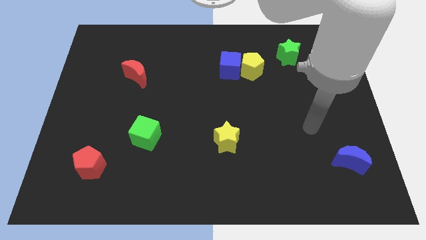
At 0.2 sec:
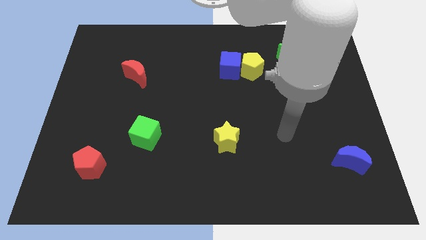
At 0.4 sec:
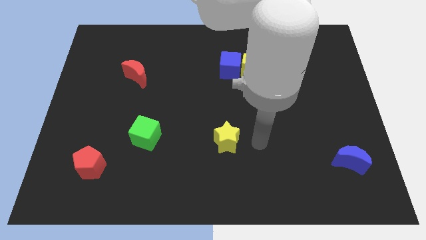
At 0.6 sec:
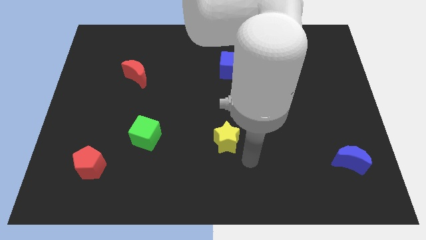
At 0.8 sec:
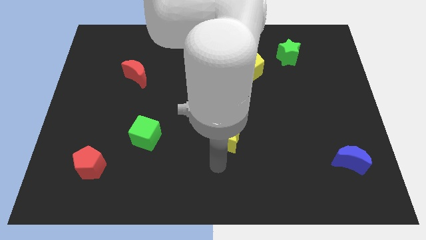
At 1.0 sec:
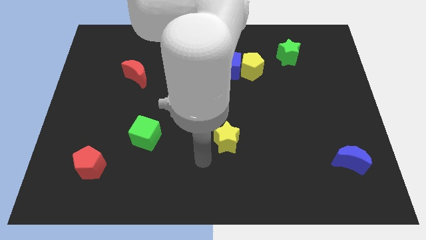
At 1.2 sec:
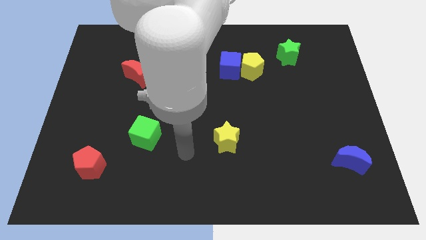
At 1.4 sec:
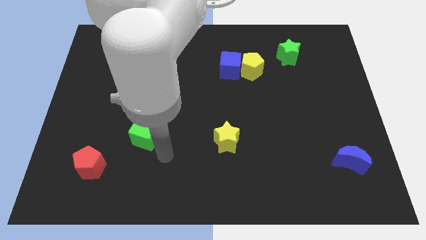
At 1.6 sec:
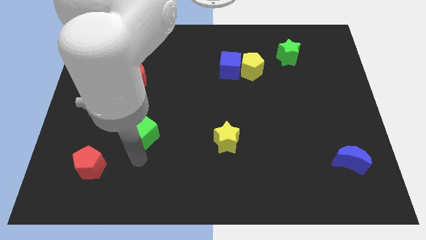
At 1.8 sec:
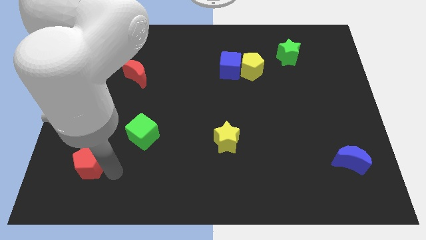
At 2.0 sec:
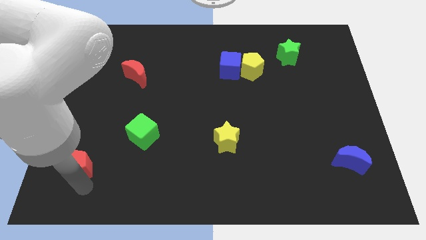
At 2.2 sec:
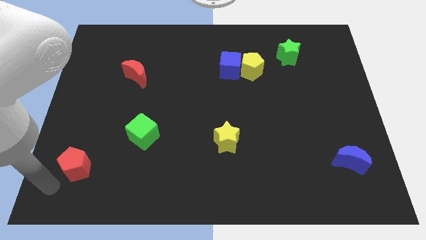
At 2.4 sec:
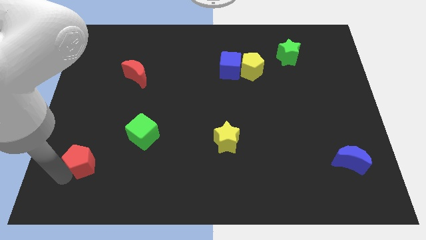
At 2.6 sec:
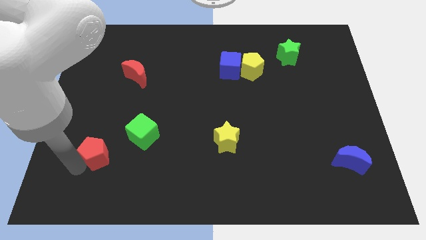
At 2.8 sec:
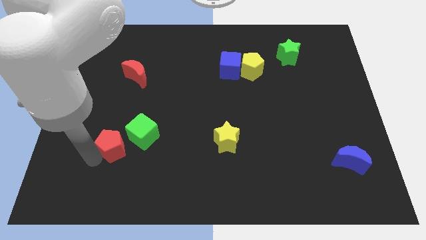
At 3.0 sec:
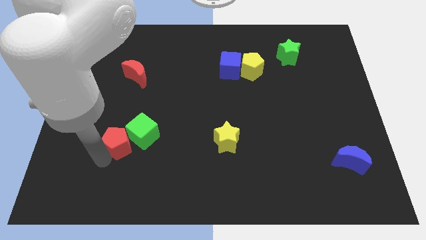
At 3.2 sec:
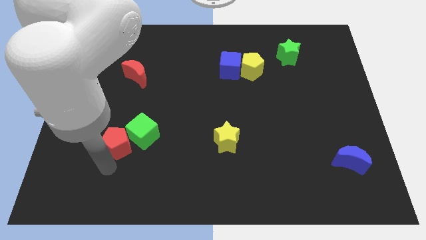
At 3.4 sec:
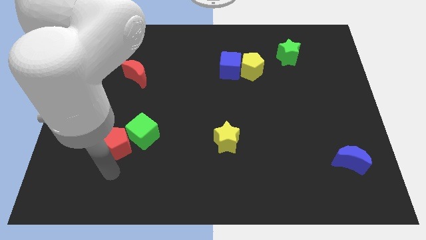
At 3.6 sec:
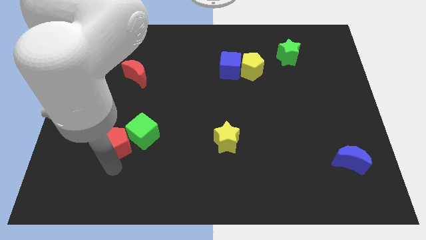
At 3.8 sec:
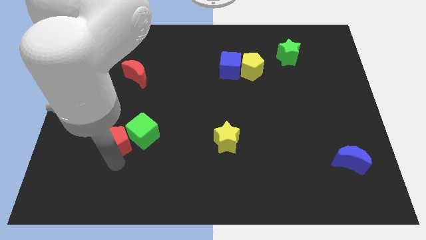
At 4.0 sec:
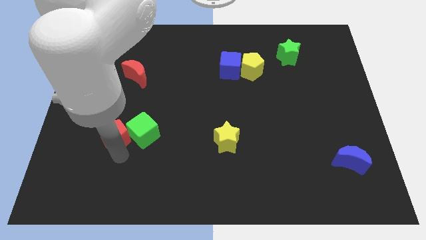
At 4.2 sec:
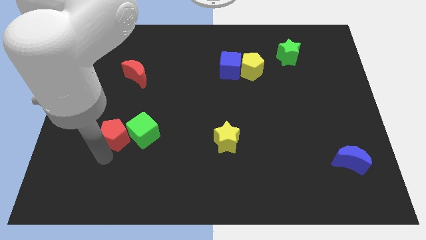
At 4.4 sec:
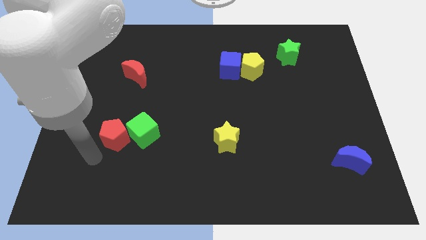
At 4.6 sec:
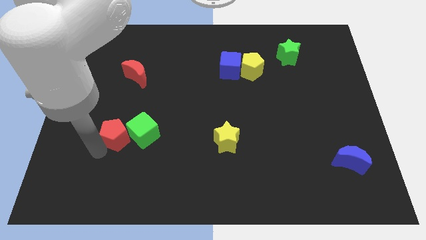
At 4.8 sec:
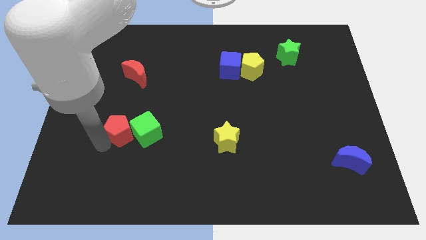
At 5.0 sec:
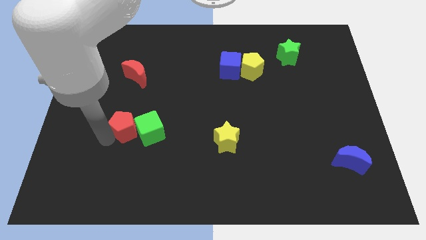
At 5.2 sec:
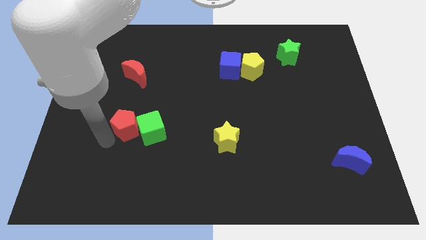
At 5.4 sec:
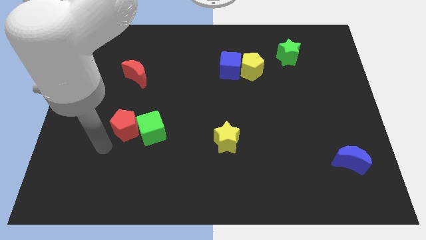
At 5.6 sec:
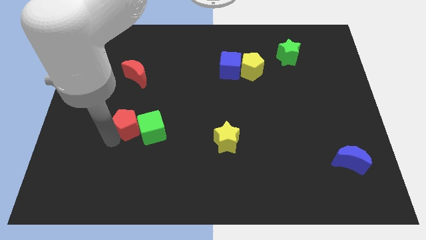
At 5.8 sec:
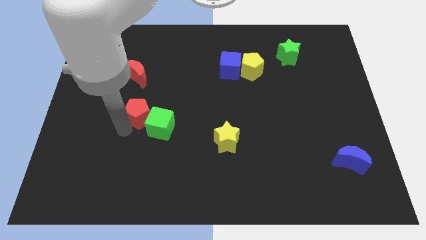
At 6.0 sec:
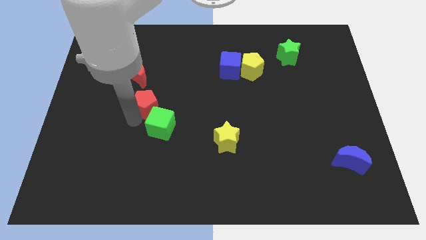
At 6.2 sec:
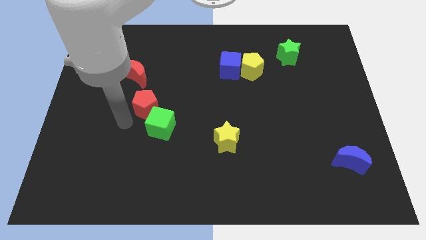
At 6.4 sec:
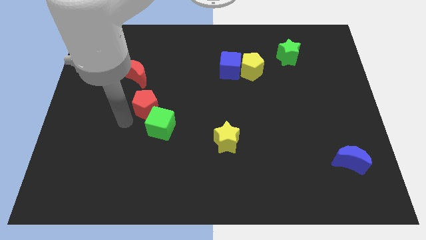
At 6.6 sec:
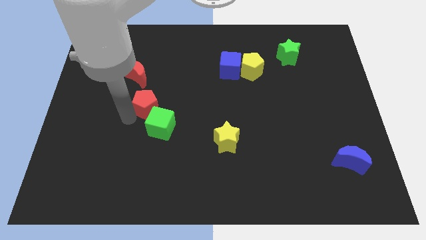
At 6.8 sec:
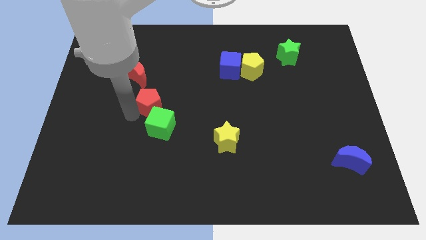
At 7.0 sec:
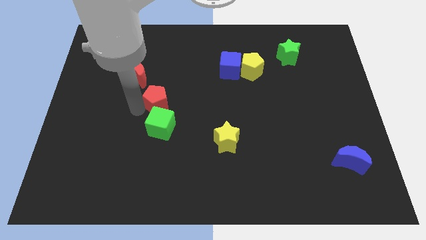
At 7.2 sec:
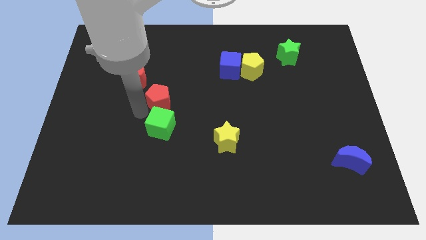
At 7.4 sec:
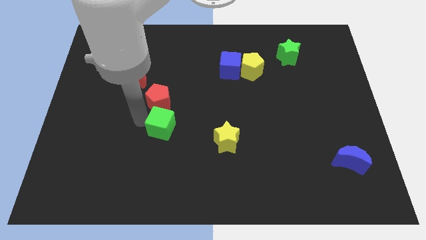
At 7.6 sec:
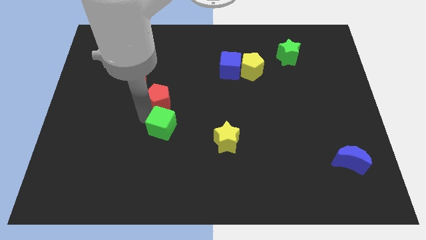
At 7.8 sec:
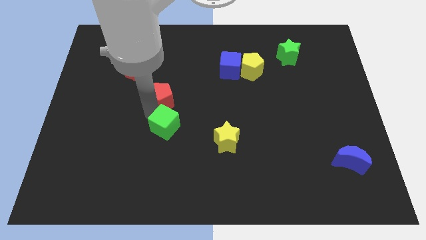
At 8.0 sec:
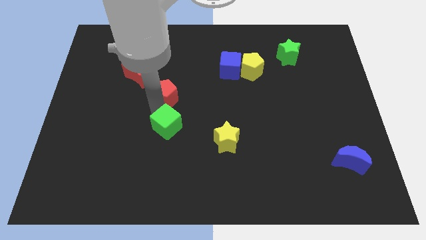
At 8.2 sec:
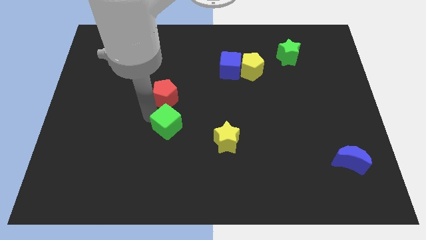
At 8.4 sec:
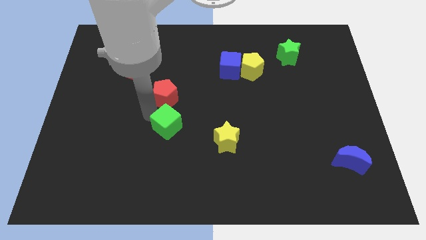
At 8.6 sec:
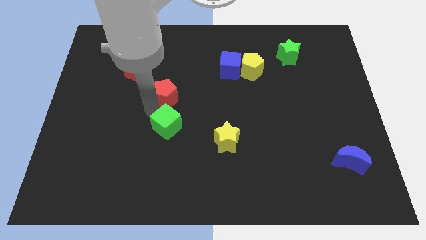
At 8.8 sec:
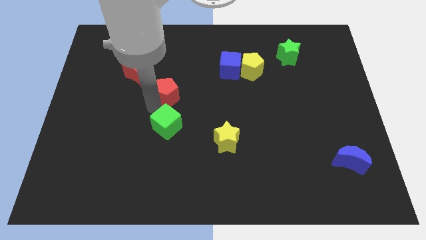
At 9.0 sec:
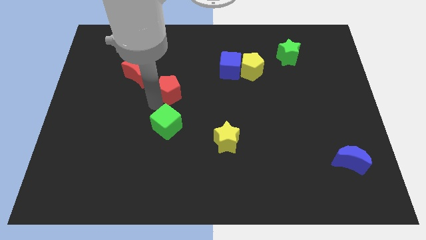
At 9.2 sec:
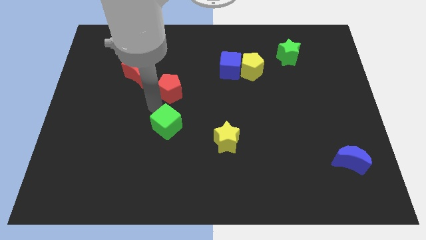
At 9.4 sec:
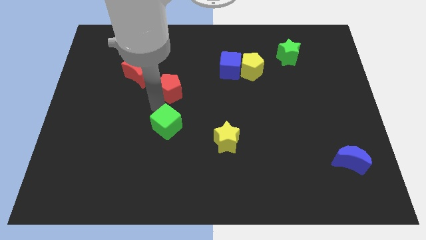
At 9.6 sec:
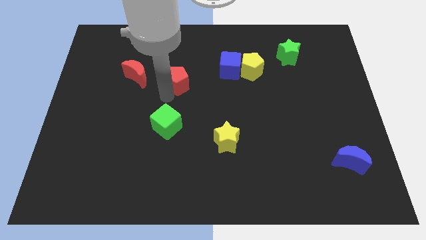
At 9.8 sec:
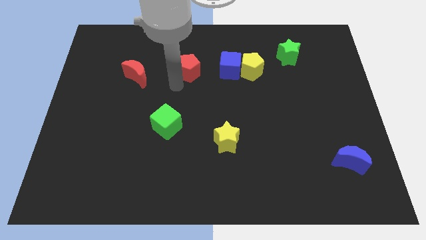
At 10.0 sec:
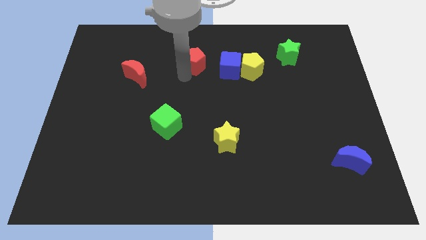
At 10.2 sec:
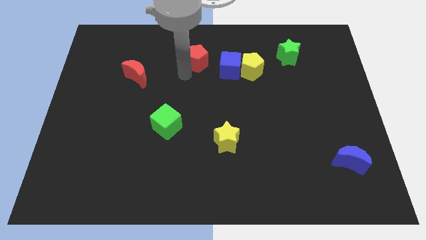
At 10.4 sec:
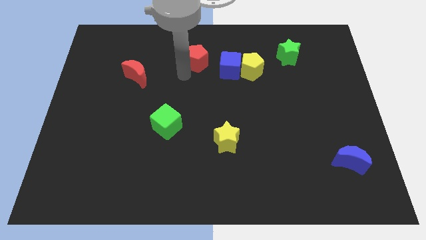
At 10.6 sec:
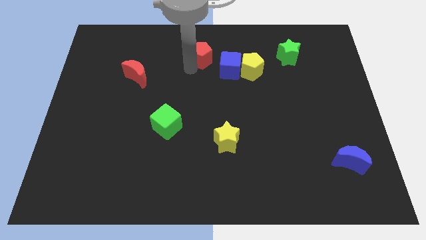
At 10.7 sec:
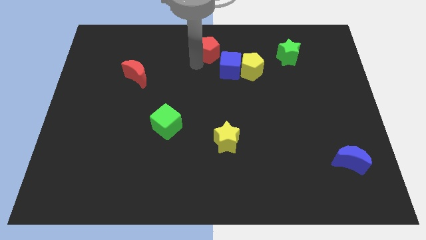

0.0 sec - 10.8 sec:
push the red pentagon to the top side
